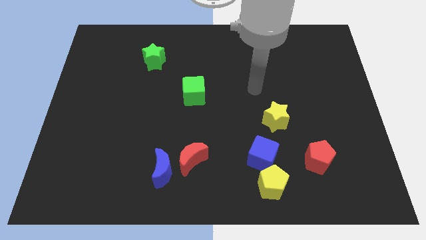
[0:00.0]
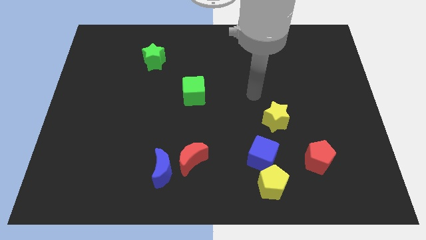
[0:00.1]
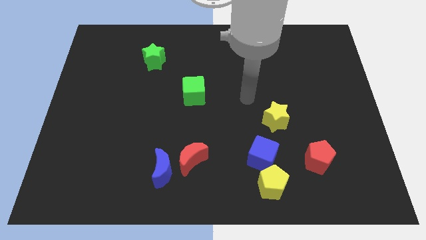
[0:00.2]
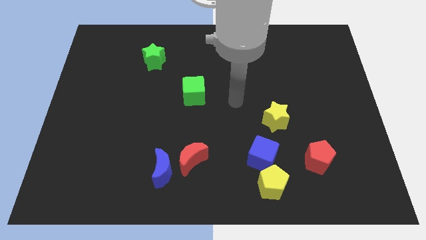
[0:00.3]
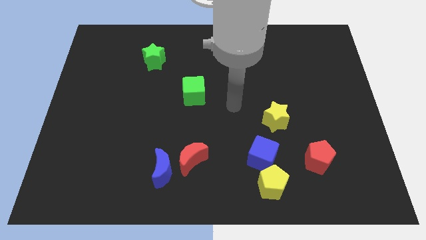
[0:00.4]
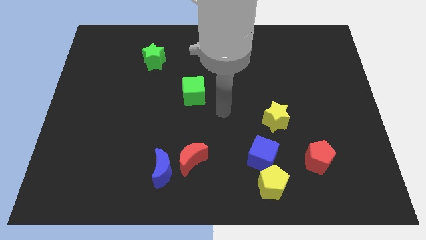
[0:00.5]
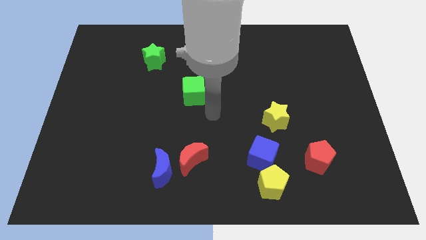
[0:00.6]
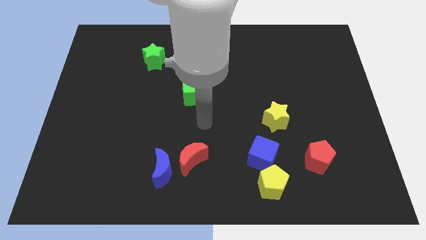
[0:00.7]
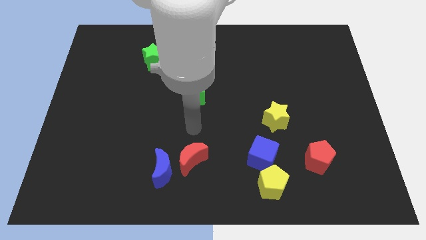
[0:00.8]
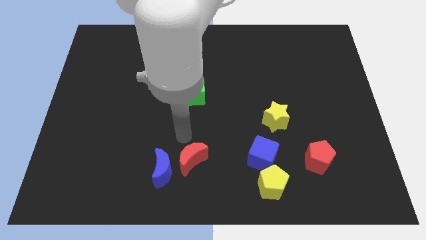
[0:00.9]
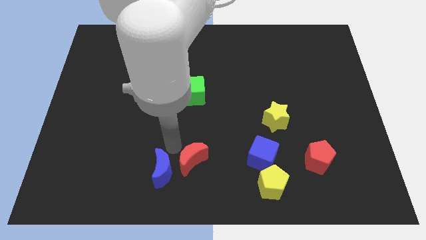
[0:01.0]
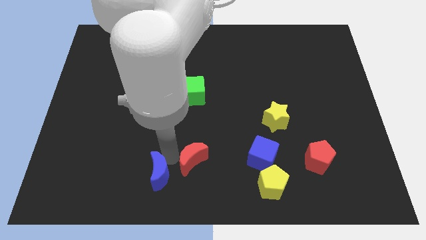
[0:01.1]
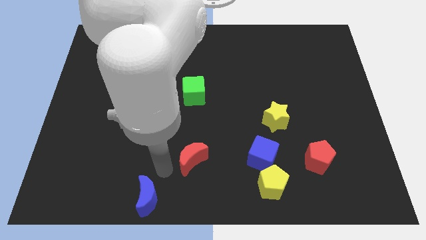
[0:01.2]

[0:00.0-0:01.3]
separate the red moon from the blue moon

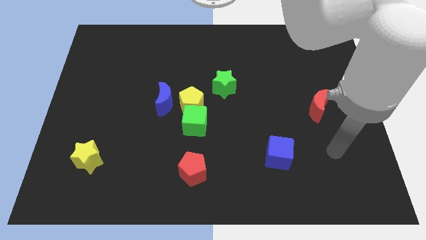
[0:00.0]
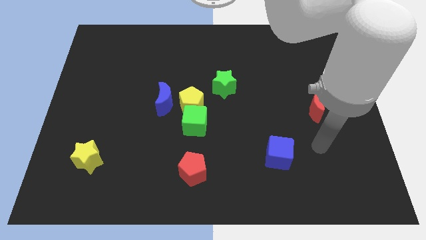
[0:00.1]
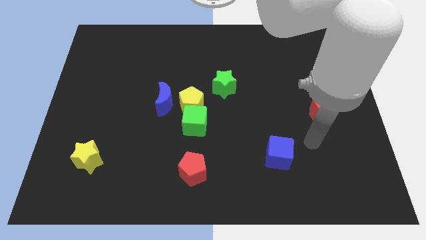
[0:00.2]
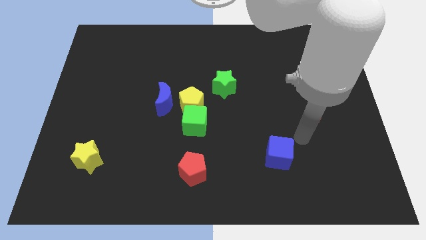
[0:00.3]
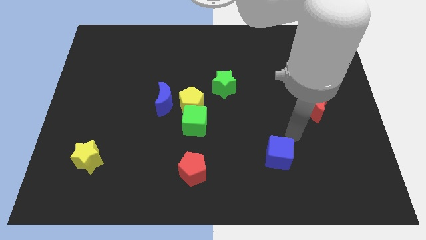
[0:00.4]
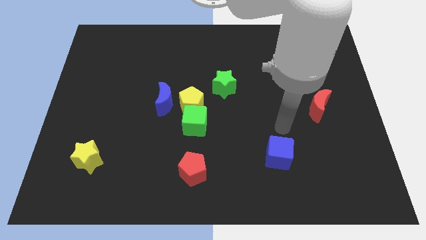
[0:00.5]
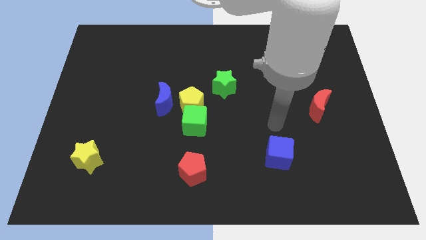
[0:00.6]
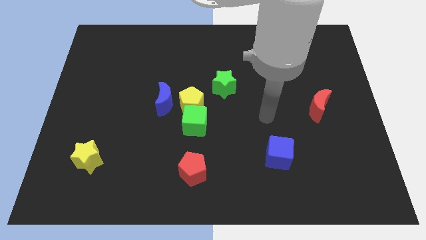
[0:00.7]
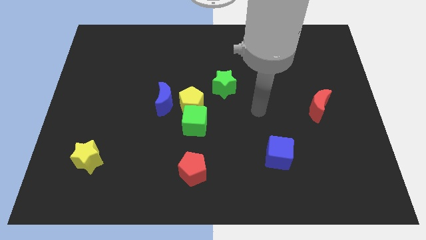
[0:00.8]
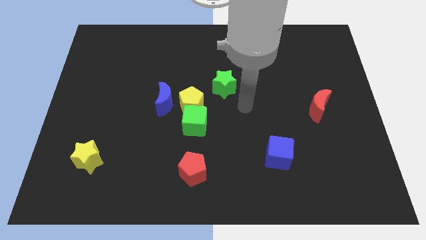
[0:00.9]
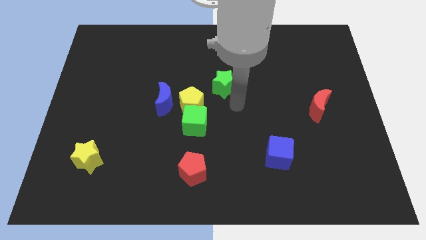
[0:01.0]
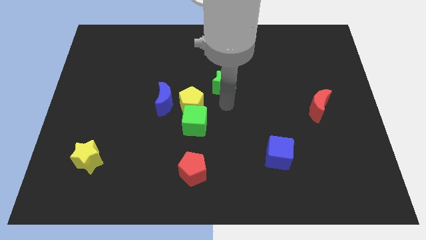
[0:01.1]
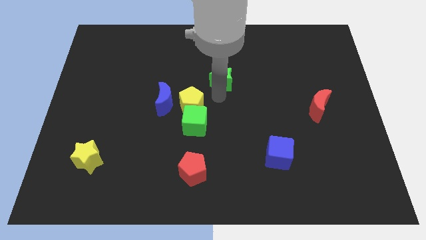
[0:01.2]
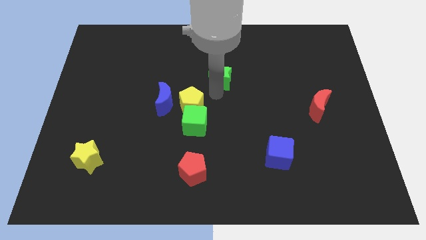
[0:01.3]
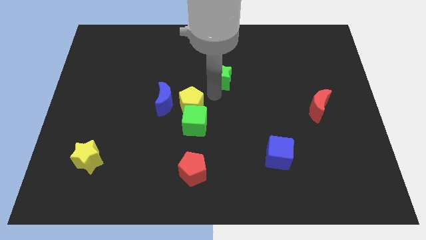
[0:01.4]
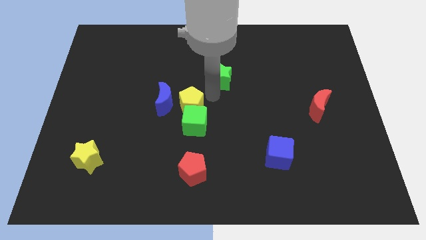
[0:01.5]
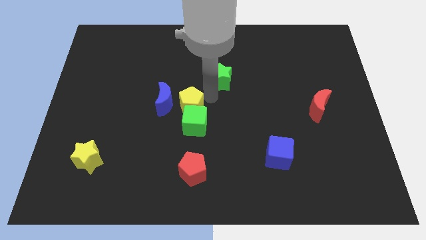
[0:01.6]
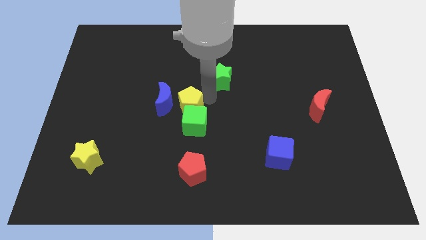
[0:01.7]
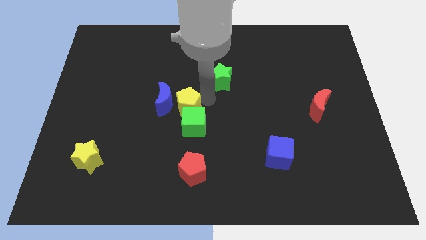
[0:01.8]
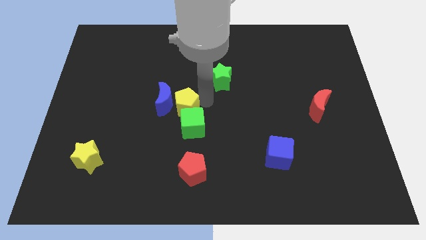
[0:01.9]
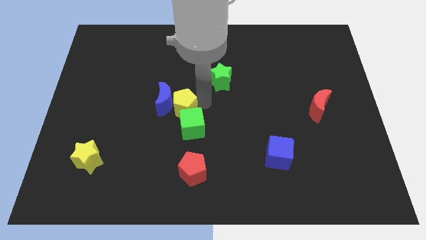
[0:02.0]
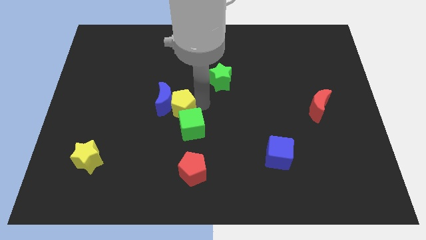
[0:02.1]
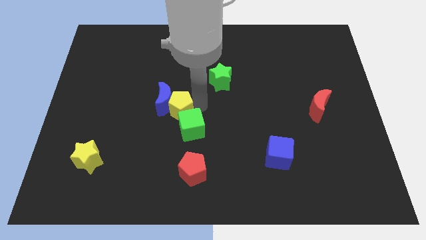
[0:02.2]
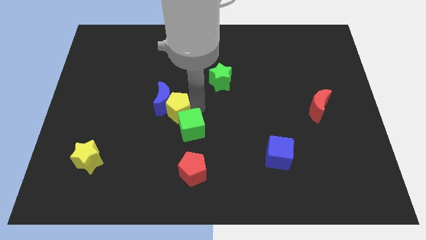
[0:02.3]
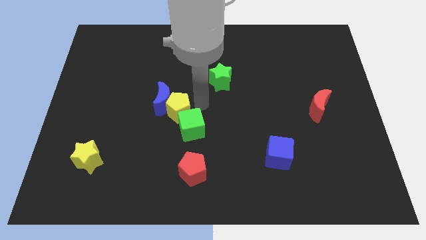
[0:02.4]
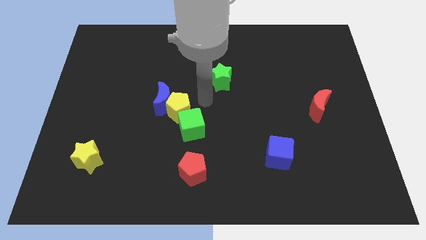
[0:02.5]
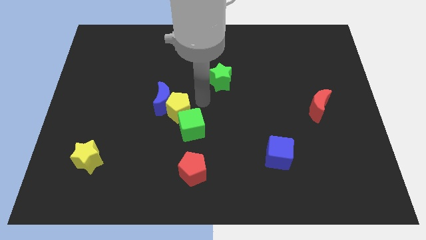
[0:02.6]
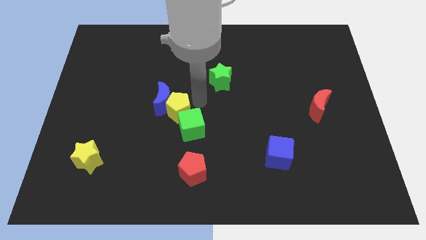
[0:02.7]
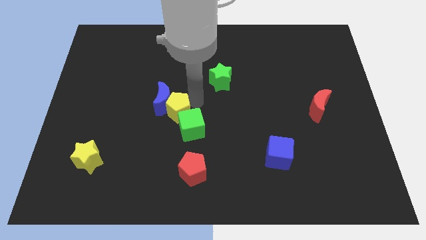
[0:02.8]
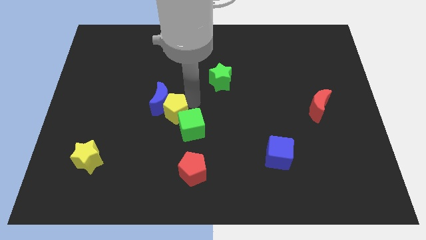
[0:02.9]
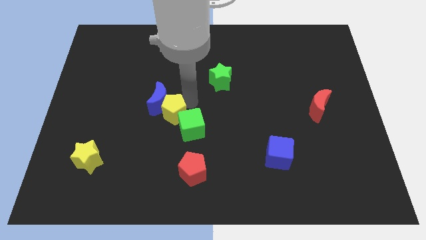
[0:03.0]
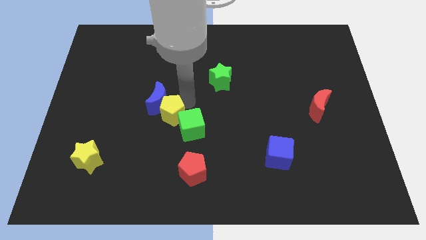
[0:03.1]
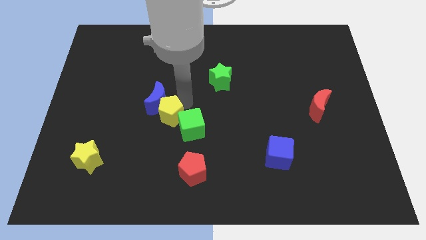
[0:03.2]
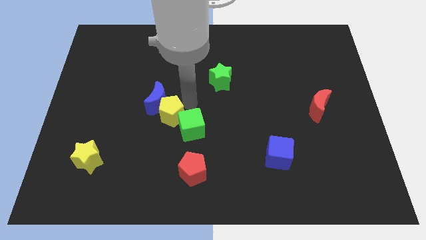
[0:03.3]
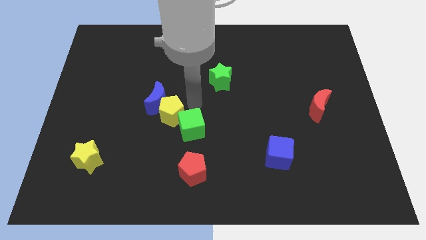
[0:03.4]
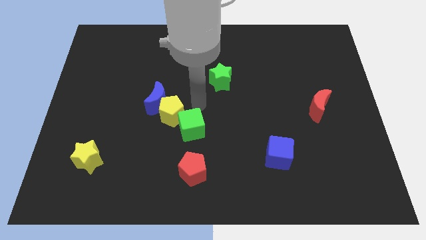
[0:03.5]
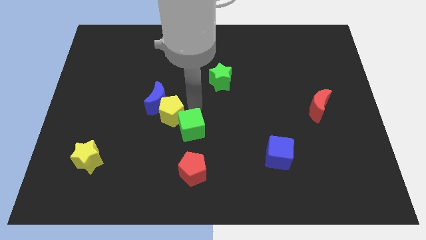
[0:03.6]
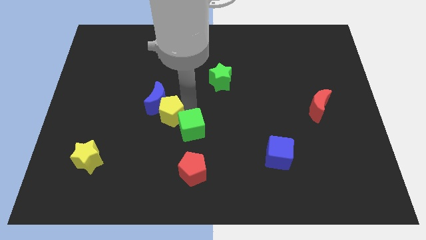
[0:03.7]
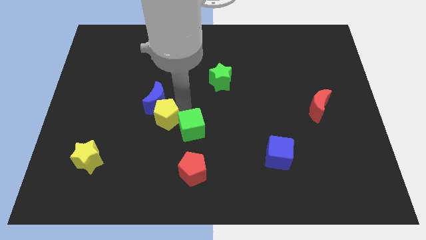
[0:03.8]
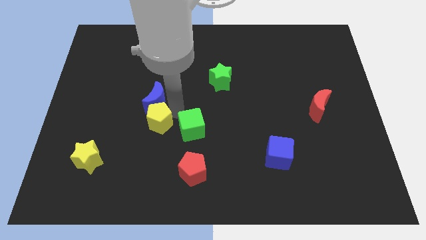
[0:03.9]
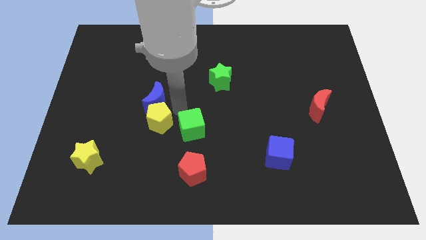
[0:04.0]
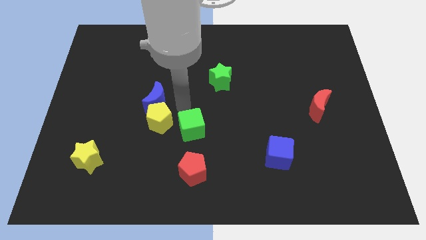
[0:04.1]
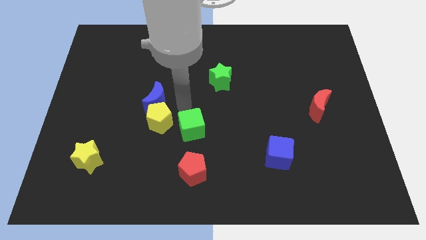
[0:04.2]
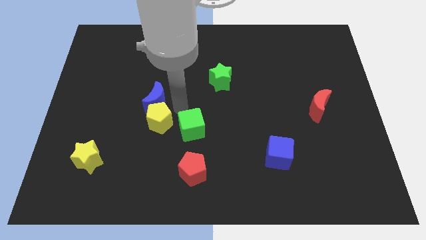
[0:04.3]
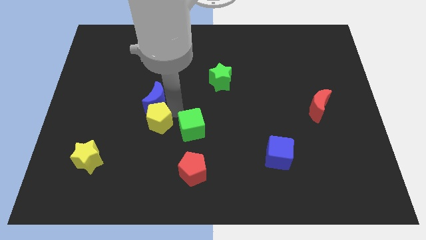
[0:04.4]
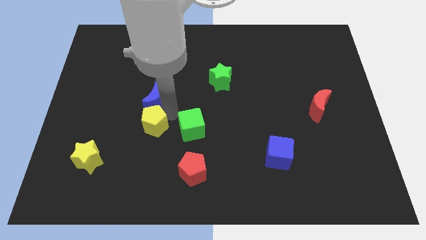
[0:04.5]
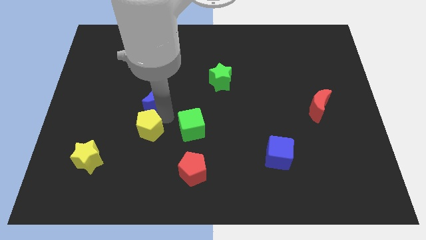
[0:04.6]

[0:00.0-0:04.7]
pull the yellow pentagon apart from the green cube, blue moon, and green star

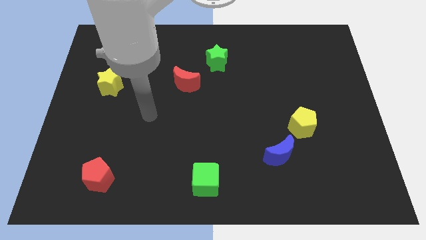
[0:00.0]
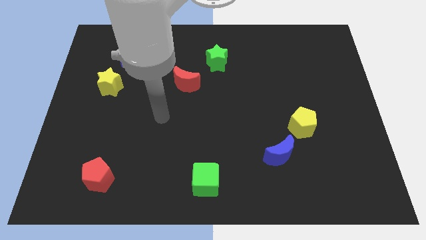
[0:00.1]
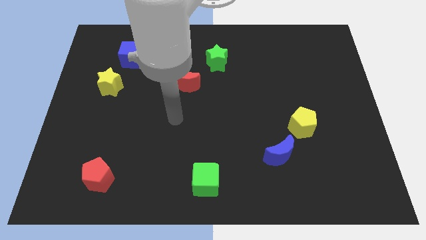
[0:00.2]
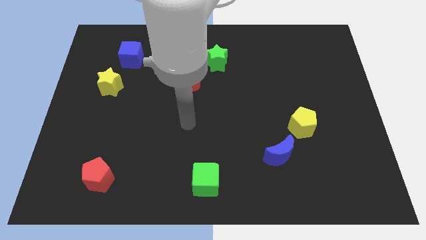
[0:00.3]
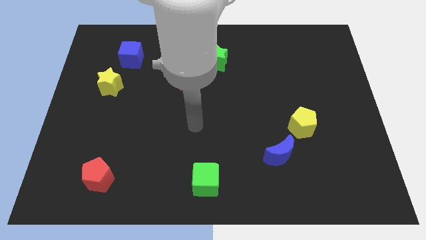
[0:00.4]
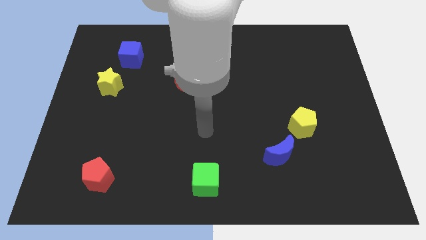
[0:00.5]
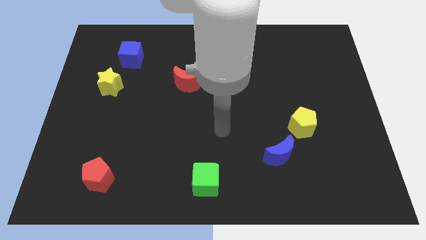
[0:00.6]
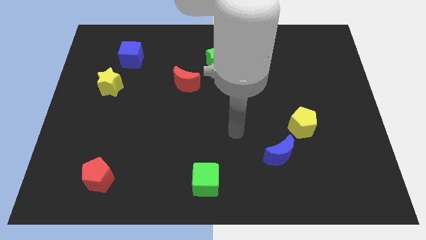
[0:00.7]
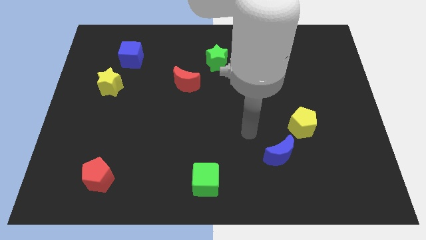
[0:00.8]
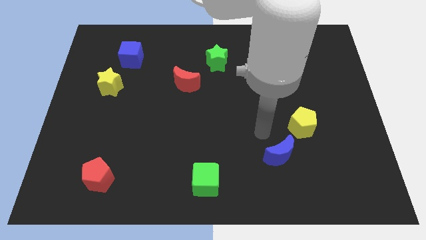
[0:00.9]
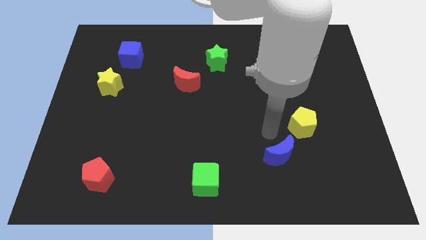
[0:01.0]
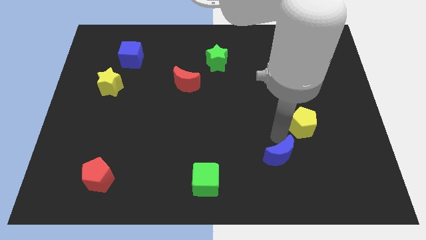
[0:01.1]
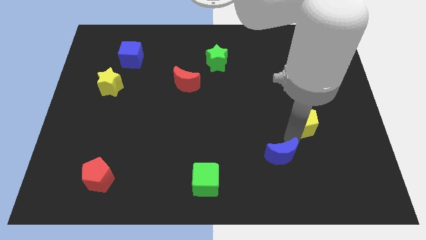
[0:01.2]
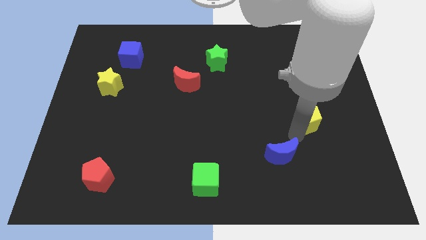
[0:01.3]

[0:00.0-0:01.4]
move the blue moon away from the yellow pentagon

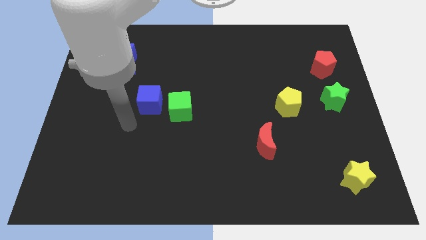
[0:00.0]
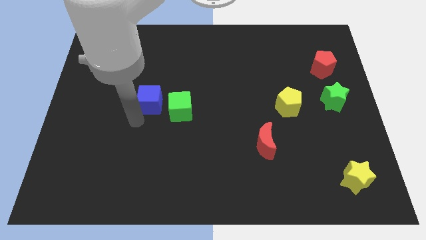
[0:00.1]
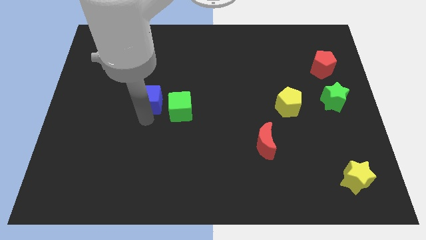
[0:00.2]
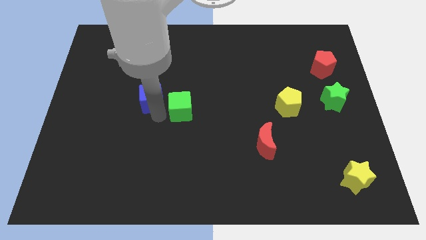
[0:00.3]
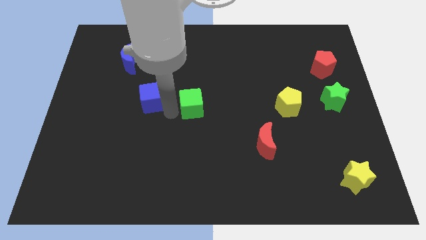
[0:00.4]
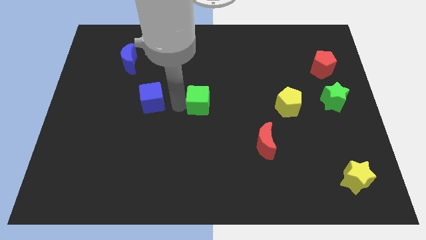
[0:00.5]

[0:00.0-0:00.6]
pull the blue cube apart from the green cube

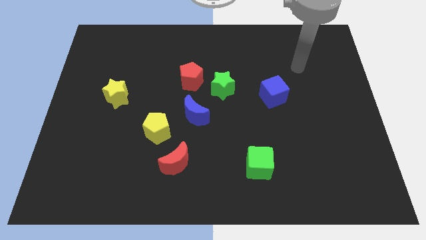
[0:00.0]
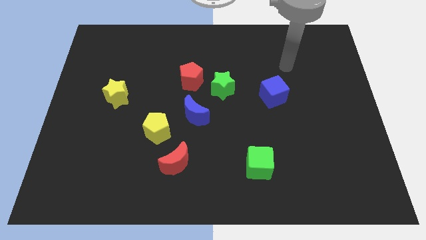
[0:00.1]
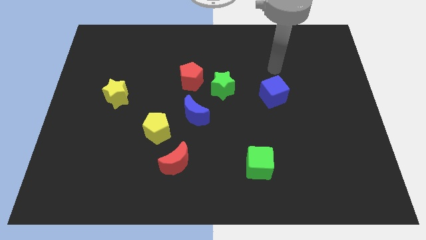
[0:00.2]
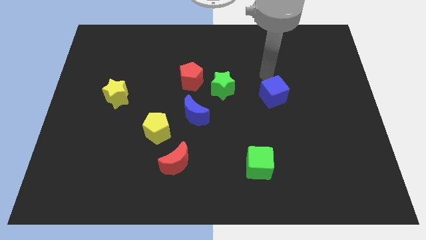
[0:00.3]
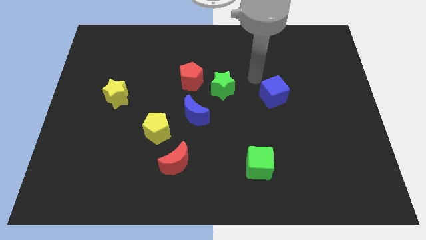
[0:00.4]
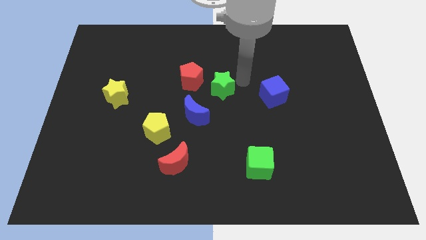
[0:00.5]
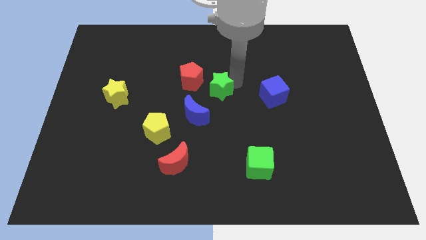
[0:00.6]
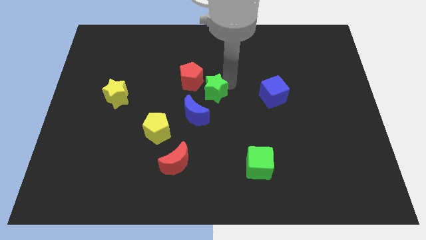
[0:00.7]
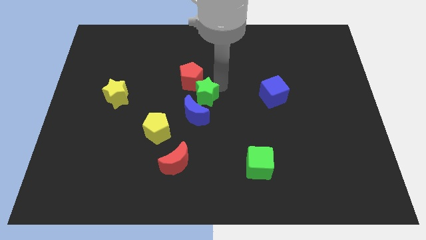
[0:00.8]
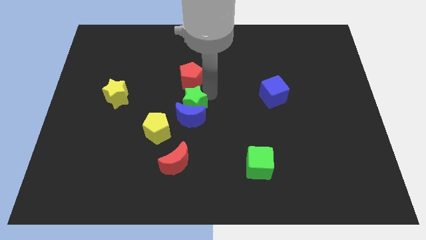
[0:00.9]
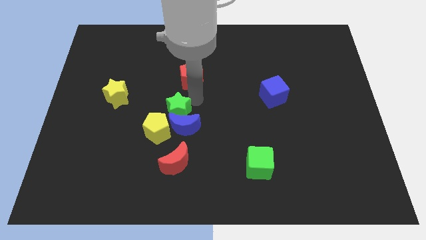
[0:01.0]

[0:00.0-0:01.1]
move the red pentagon away from the green star

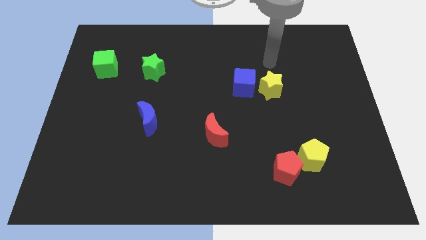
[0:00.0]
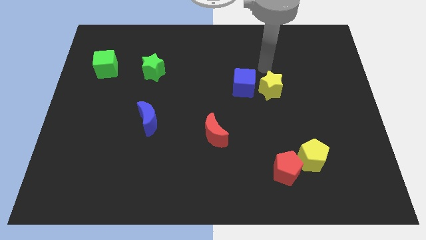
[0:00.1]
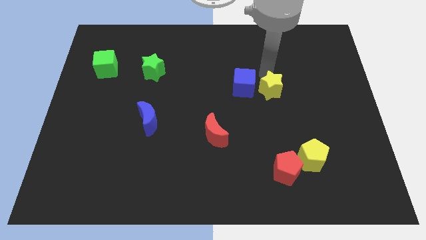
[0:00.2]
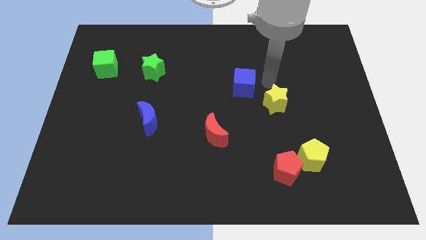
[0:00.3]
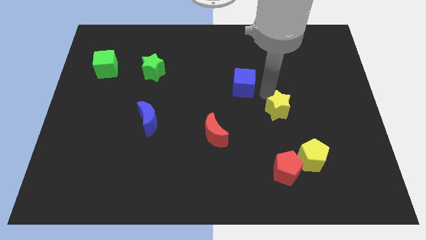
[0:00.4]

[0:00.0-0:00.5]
separate the blue cube from the yellow star
